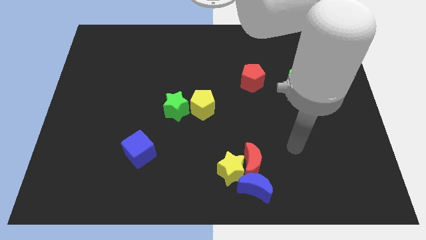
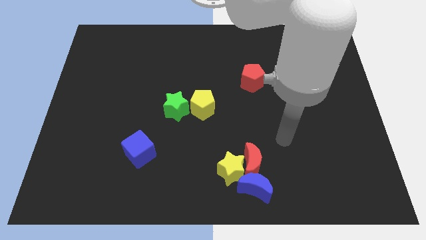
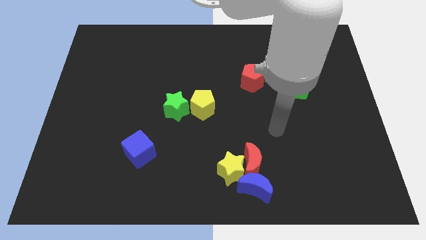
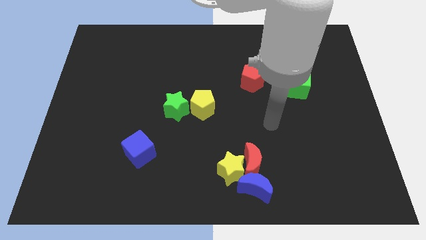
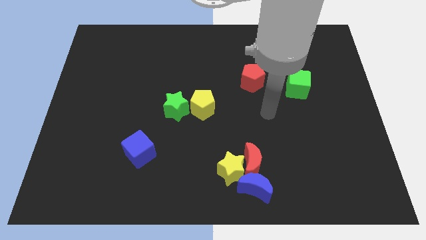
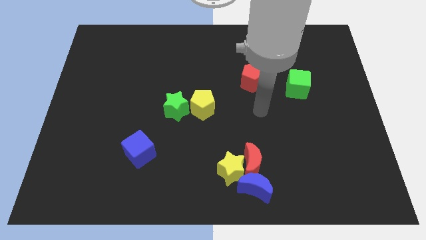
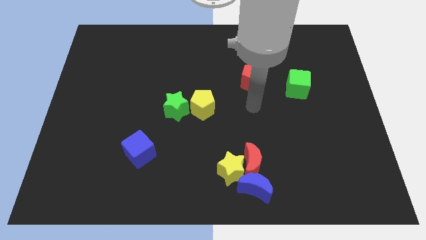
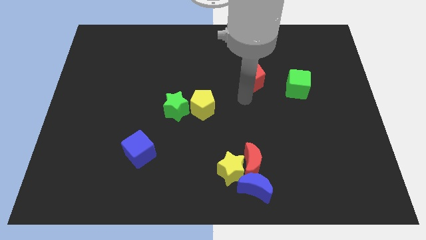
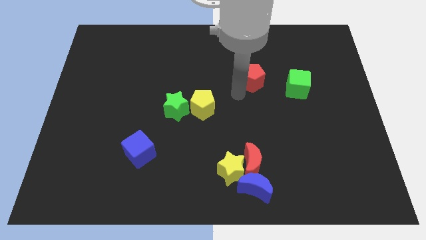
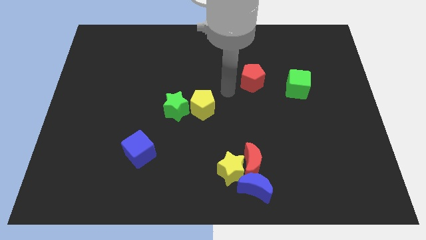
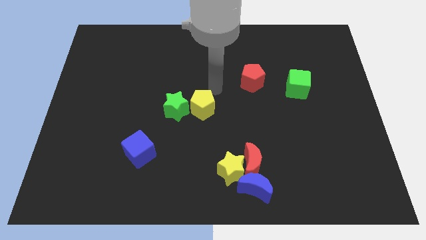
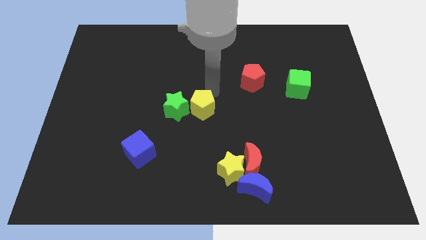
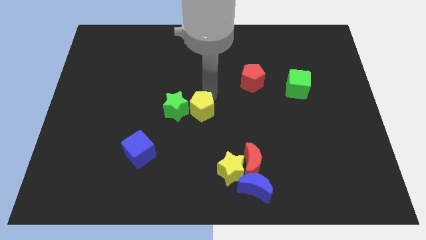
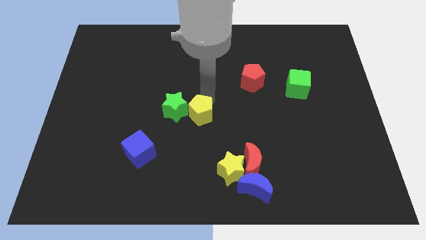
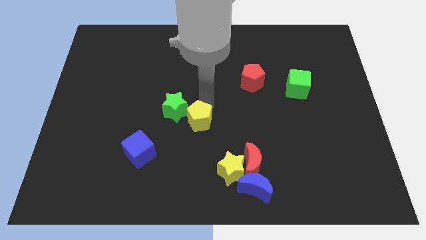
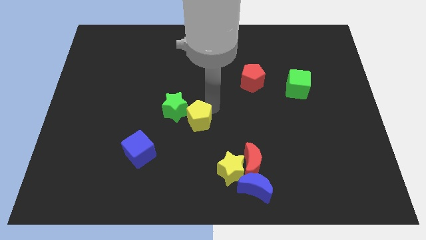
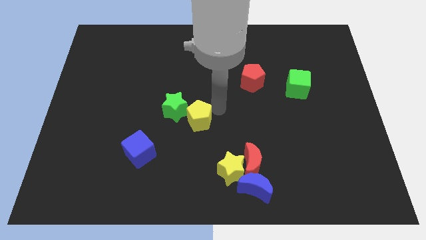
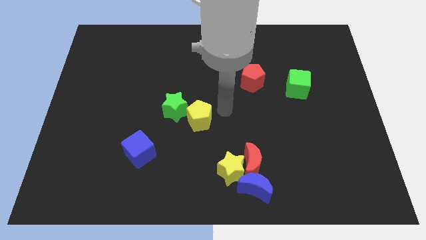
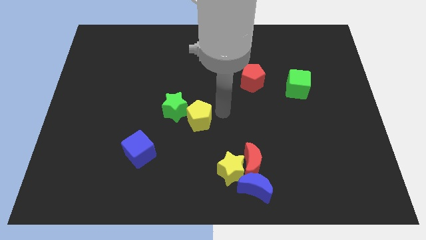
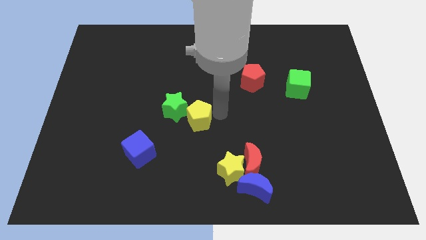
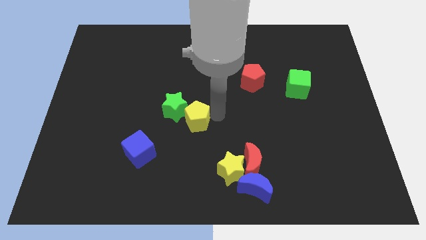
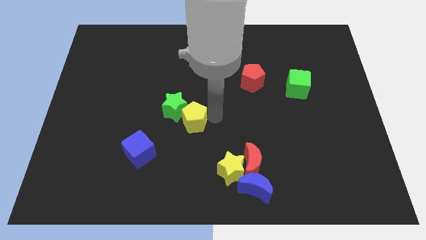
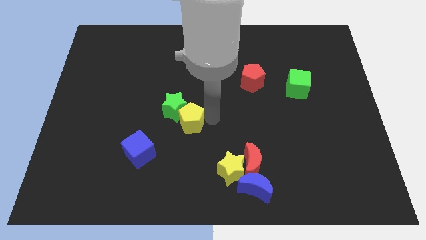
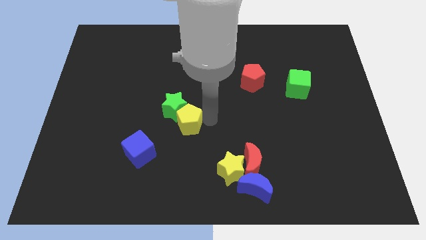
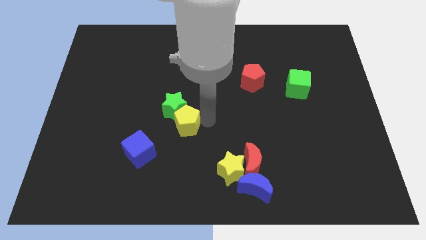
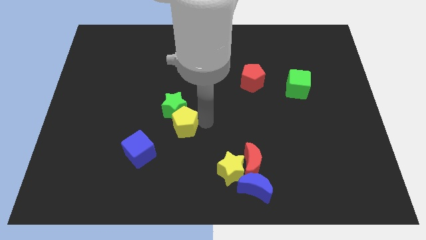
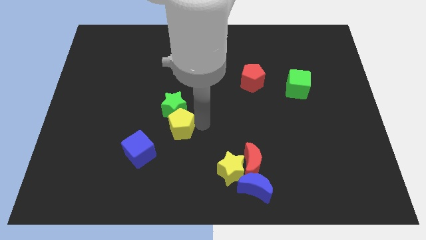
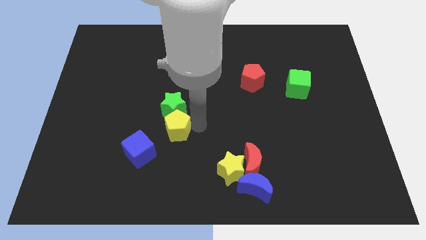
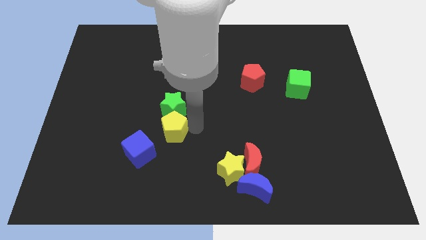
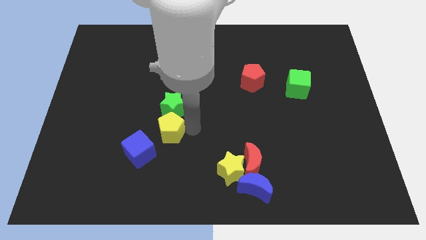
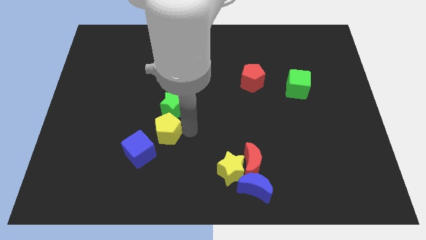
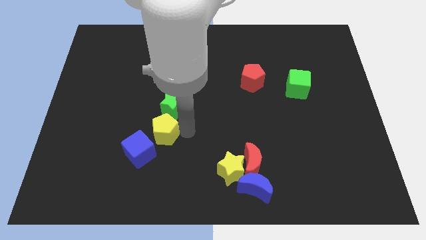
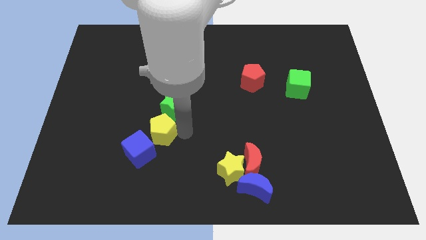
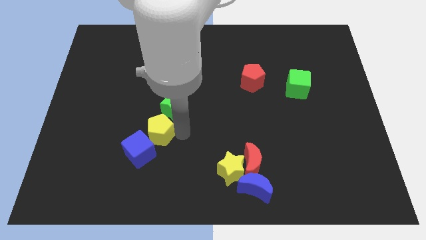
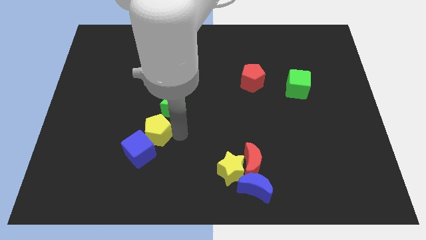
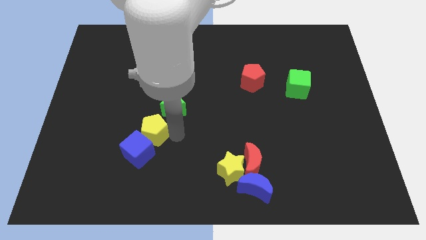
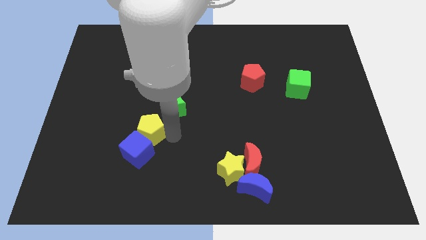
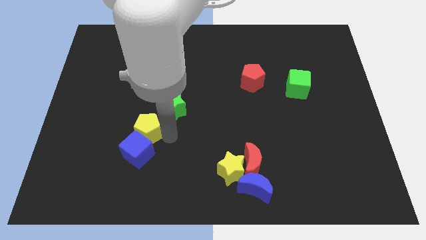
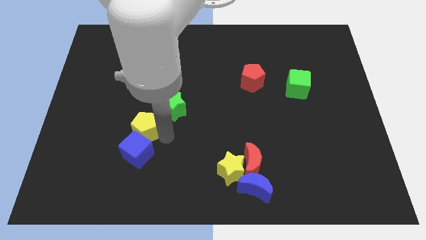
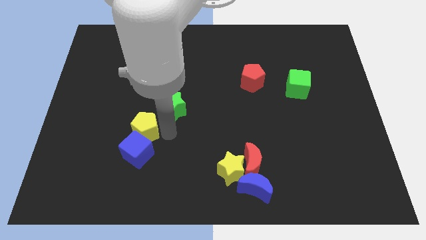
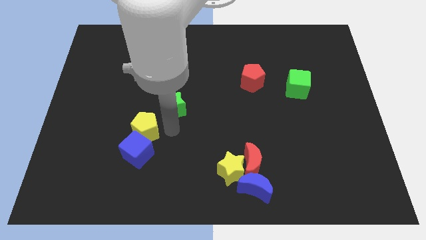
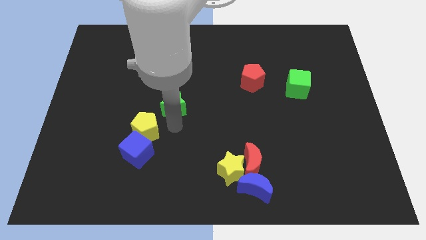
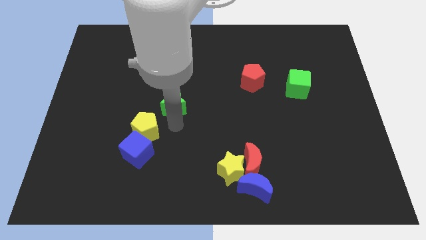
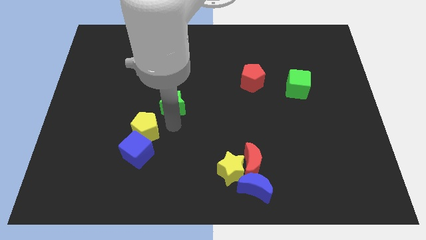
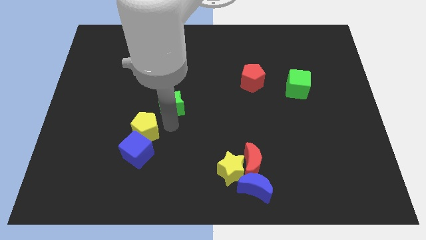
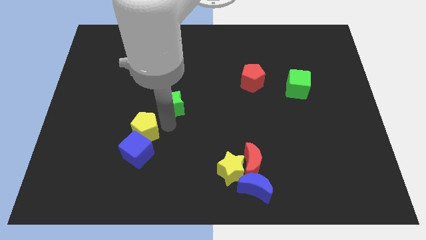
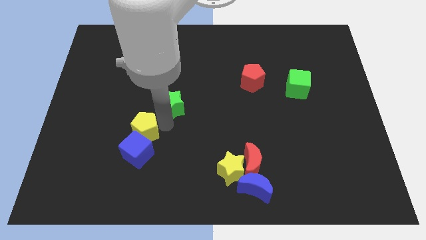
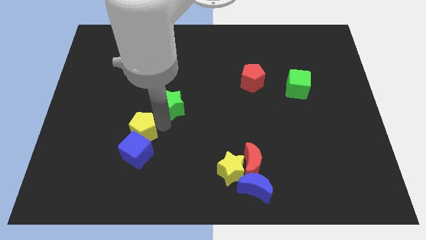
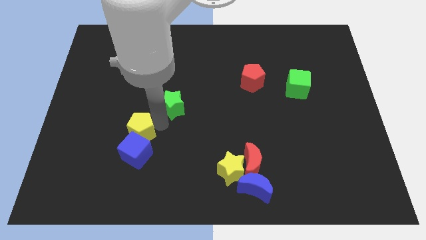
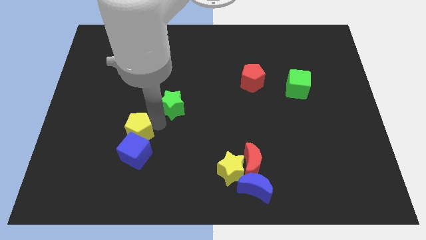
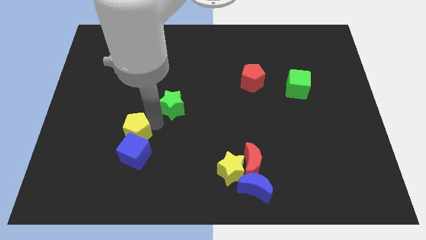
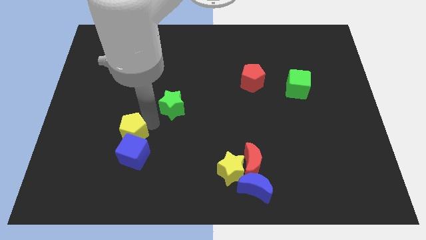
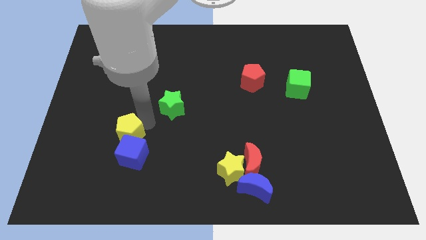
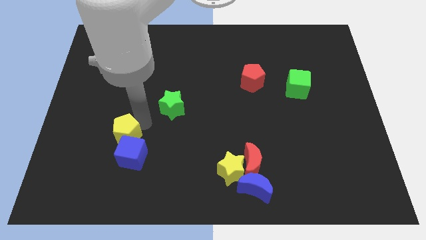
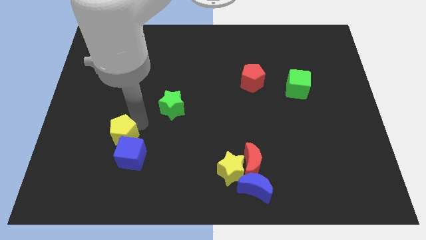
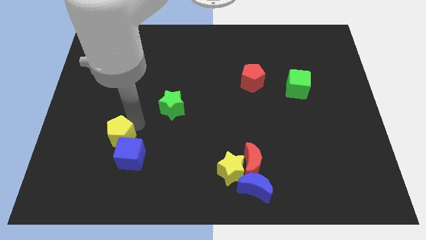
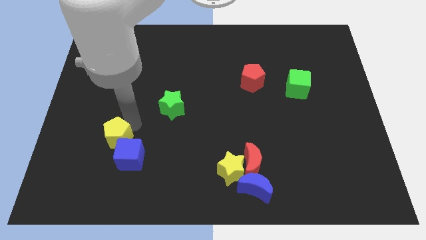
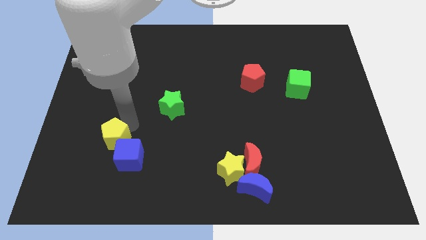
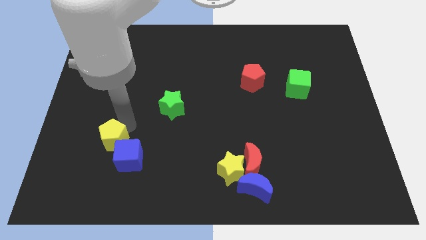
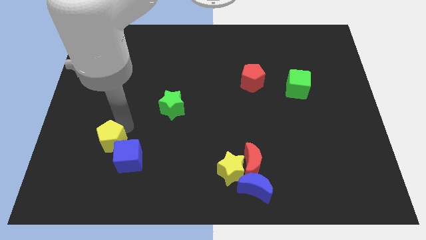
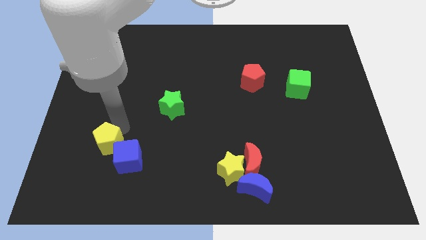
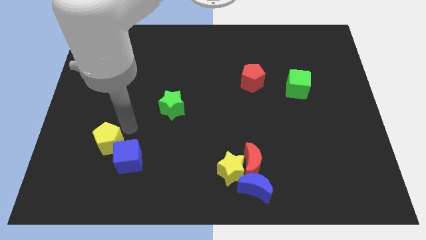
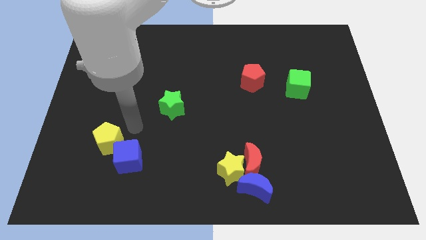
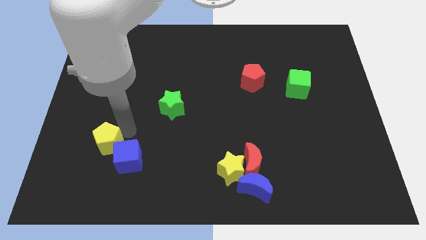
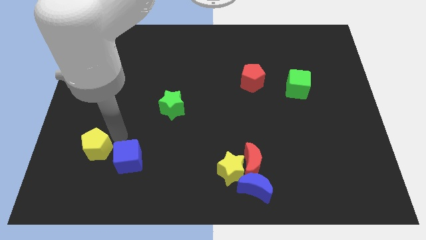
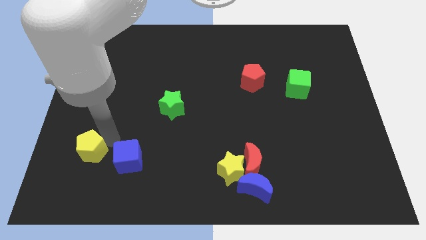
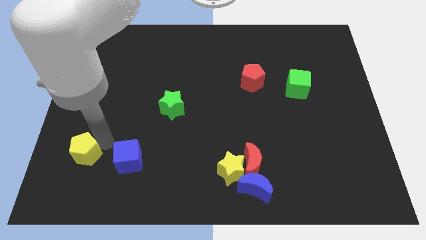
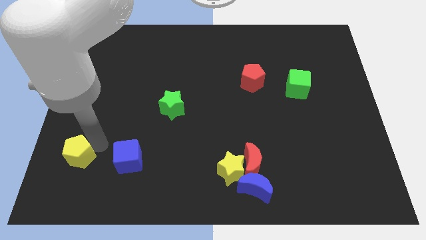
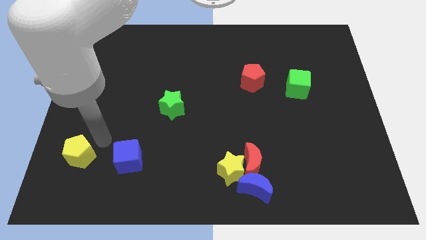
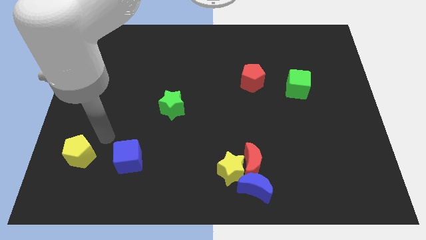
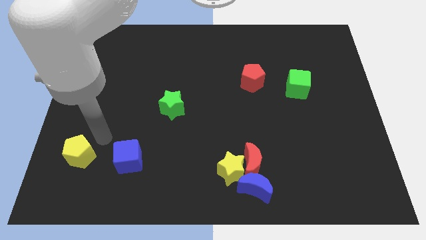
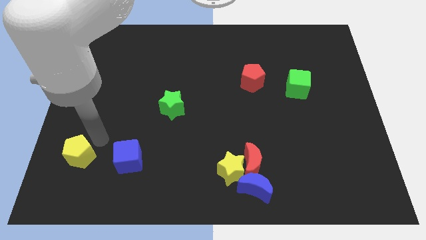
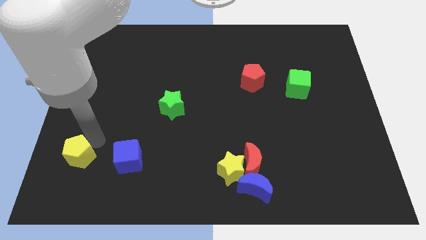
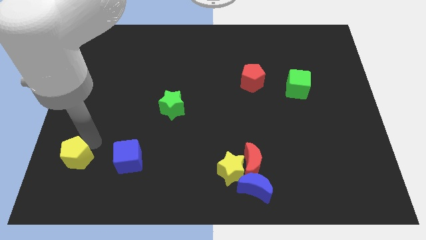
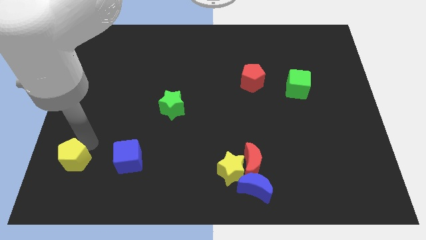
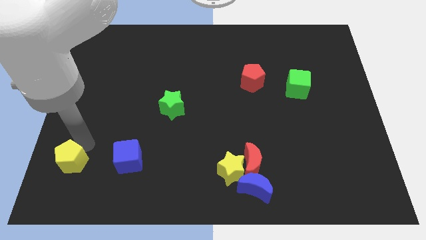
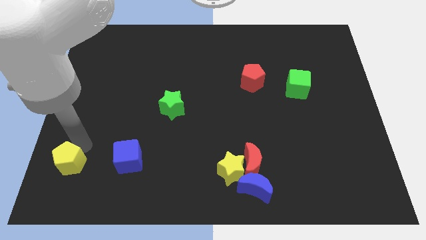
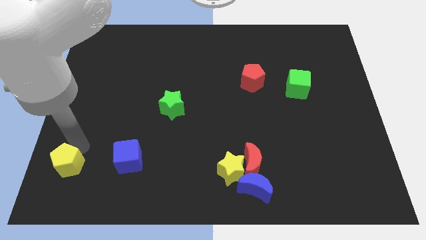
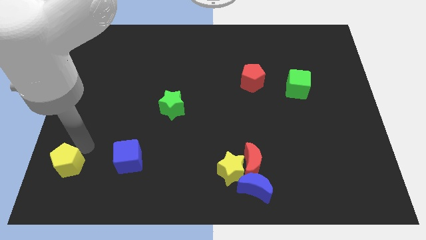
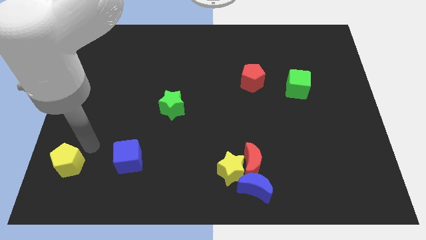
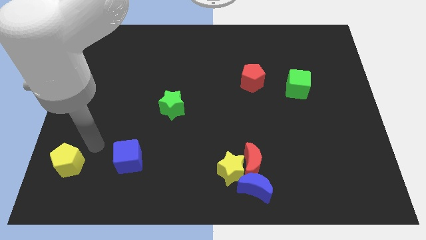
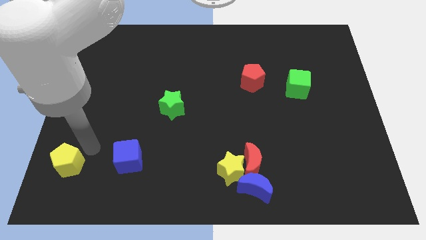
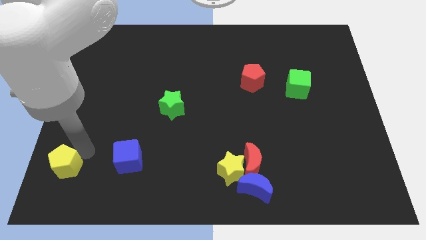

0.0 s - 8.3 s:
slide the yellow pentagon to the bottom left
